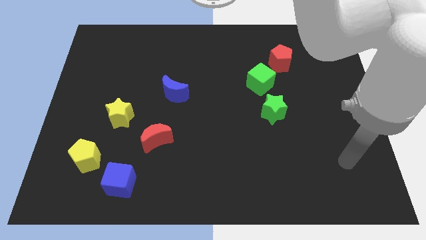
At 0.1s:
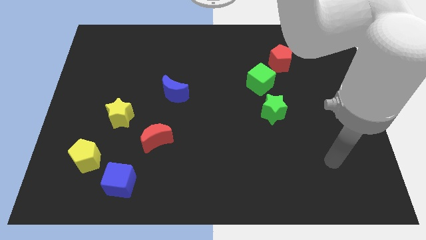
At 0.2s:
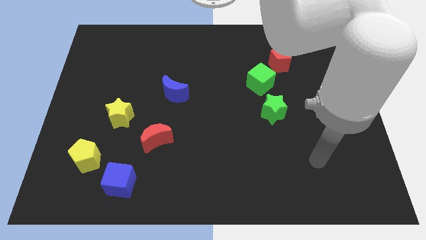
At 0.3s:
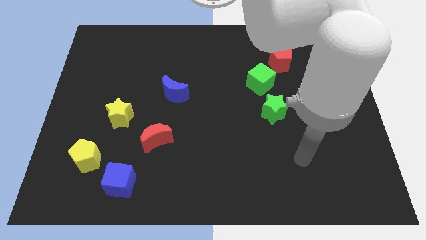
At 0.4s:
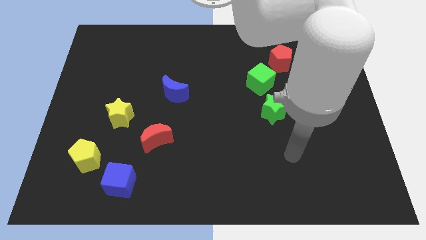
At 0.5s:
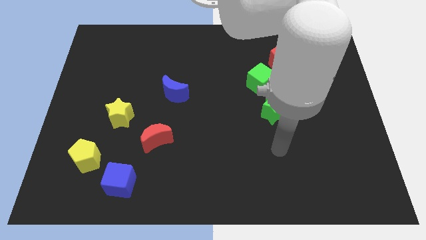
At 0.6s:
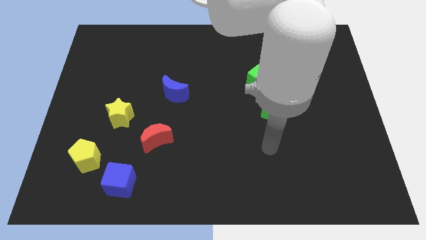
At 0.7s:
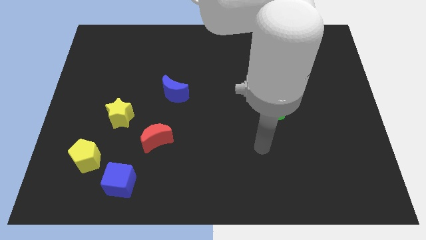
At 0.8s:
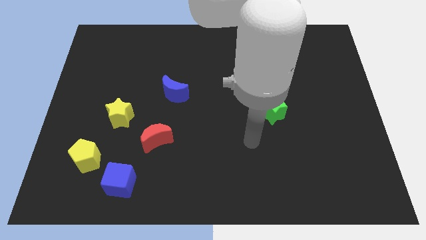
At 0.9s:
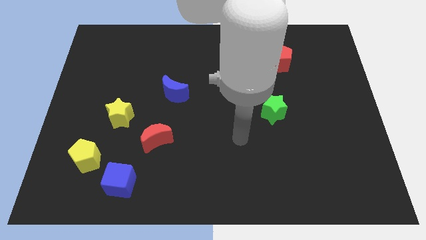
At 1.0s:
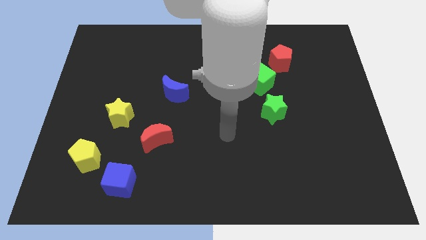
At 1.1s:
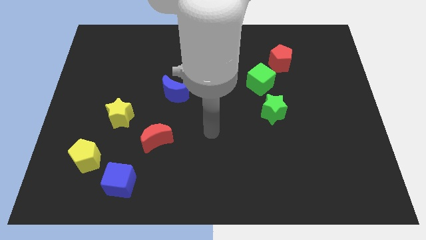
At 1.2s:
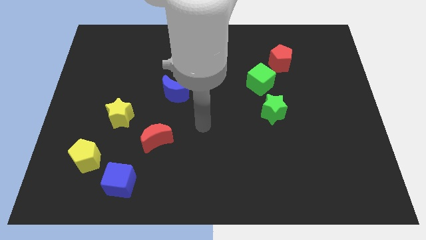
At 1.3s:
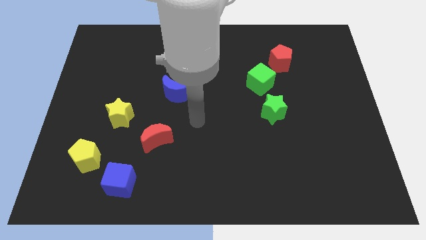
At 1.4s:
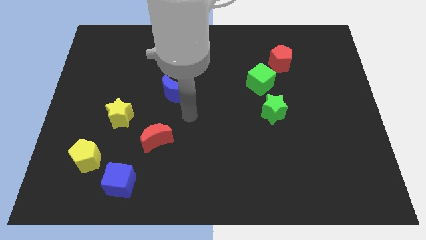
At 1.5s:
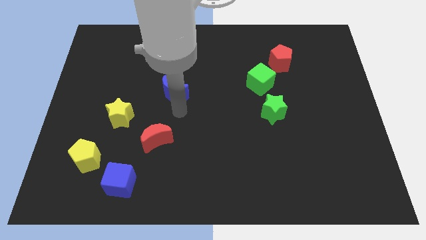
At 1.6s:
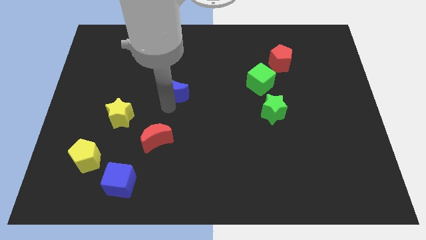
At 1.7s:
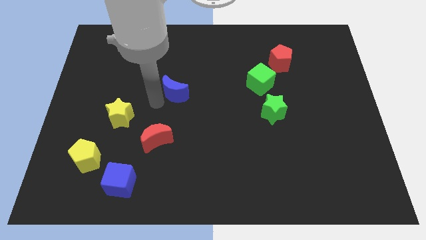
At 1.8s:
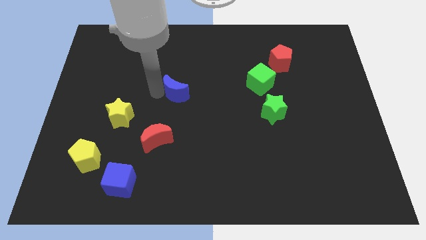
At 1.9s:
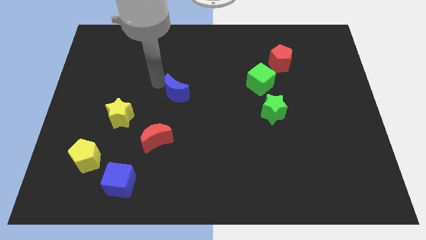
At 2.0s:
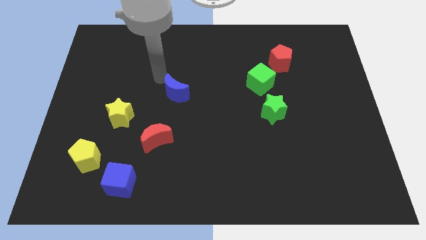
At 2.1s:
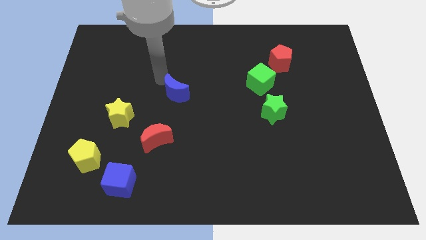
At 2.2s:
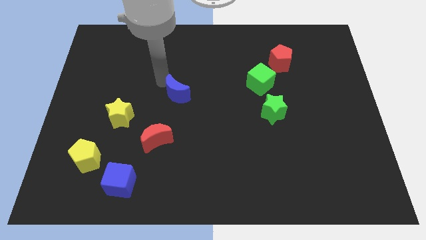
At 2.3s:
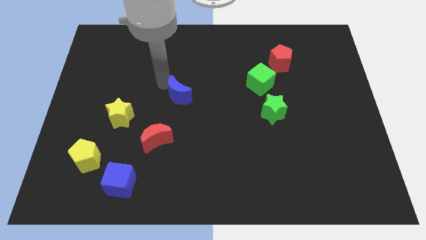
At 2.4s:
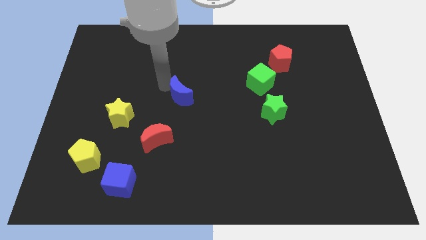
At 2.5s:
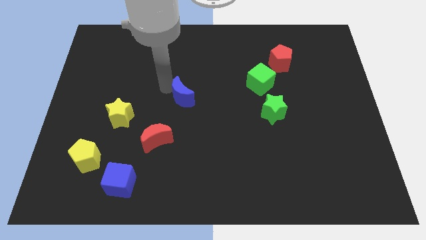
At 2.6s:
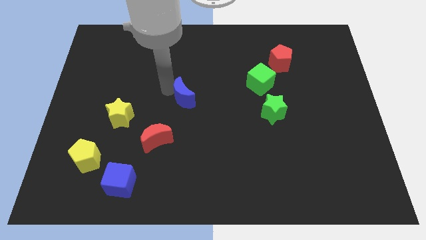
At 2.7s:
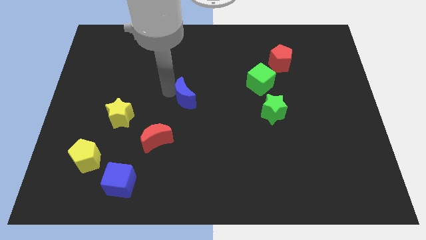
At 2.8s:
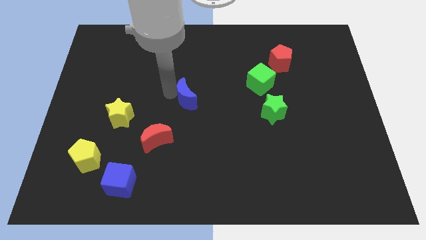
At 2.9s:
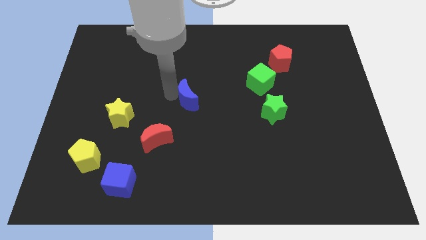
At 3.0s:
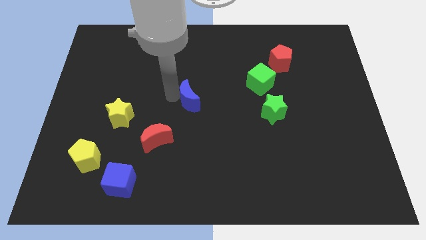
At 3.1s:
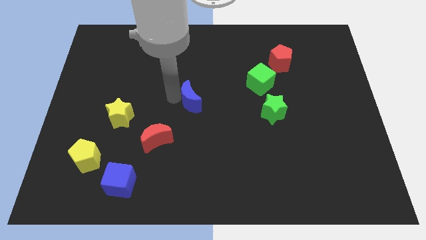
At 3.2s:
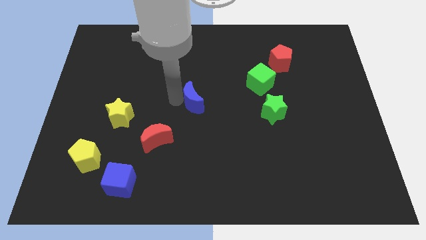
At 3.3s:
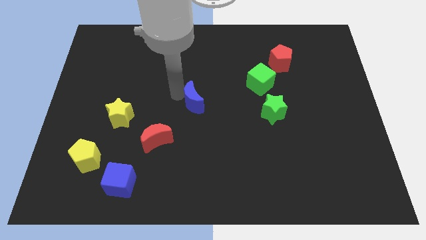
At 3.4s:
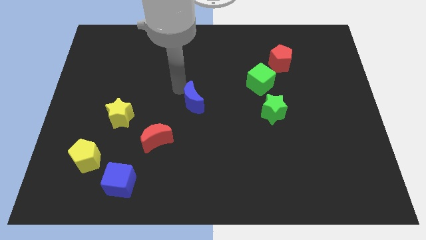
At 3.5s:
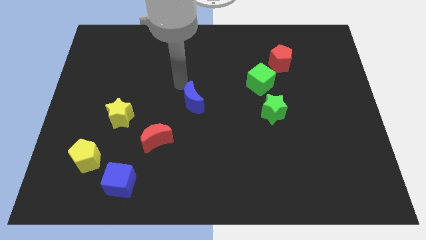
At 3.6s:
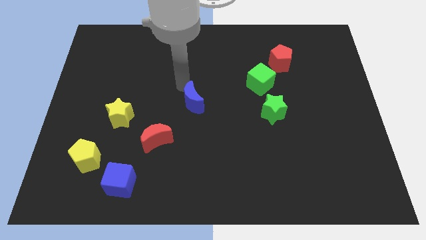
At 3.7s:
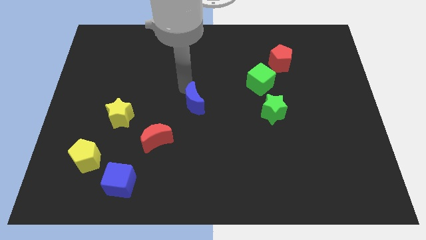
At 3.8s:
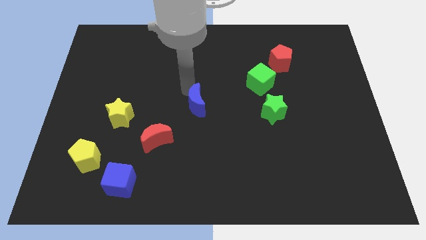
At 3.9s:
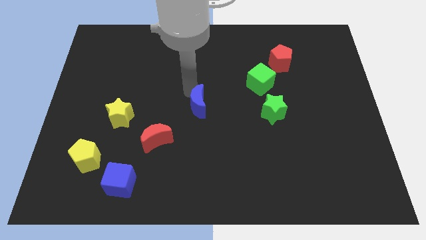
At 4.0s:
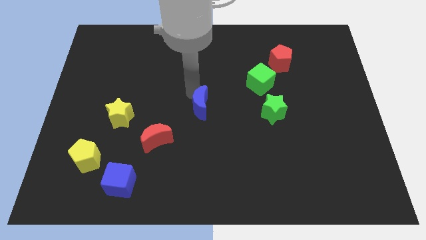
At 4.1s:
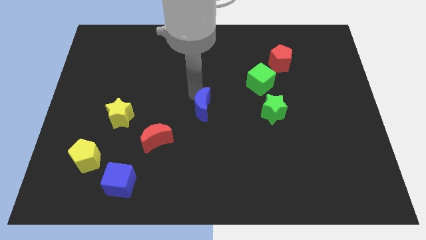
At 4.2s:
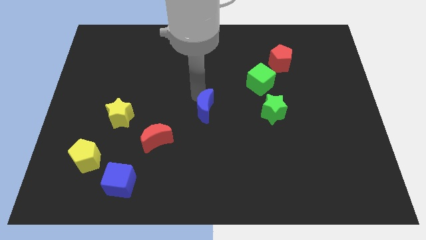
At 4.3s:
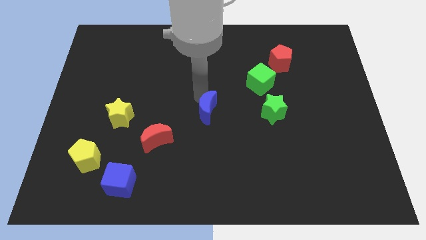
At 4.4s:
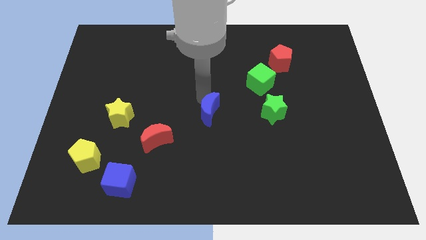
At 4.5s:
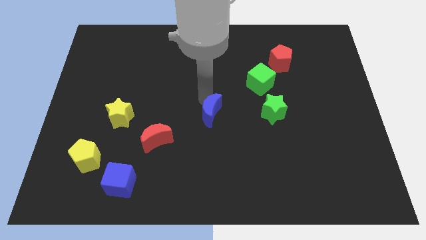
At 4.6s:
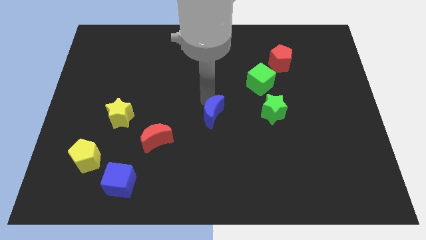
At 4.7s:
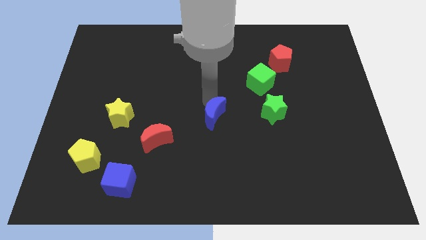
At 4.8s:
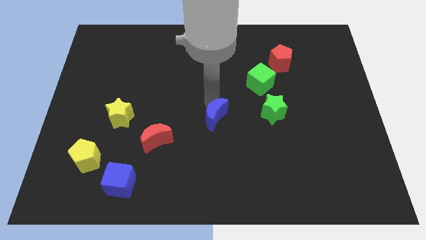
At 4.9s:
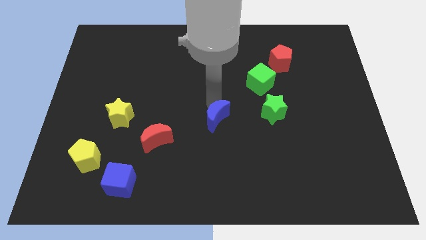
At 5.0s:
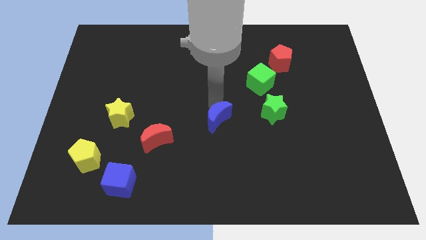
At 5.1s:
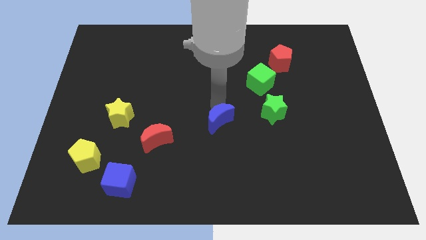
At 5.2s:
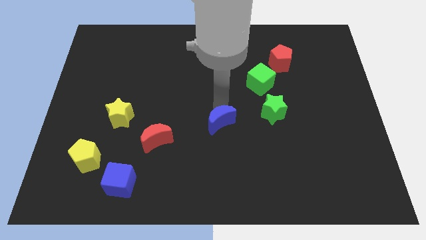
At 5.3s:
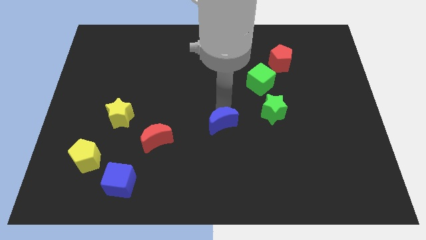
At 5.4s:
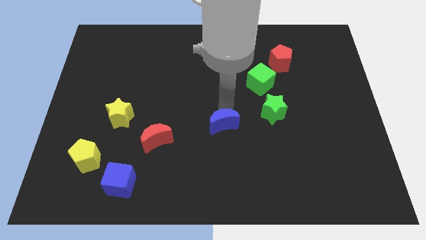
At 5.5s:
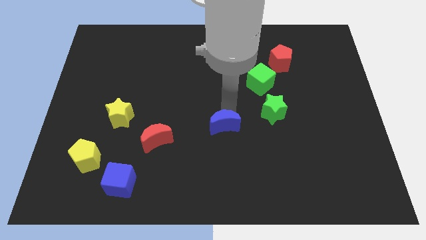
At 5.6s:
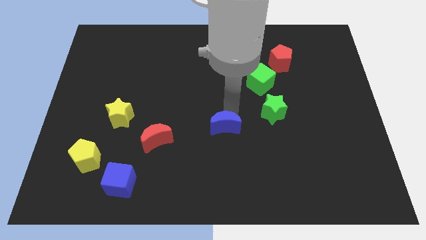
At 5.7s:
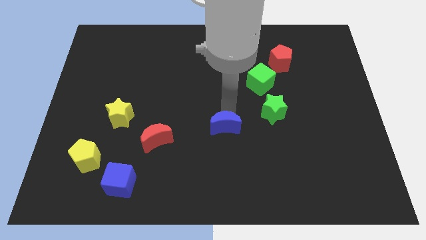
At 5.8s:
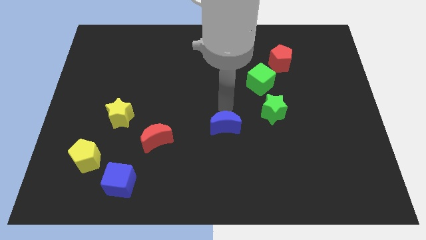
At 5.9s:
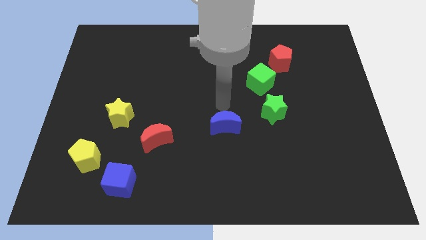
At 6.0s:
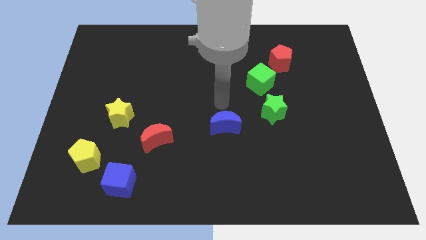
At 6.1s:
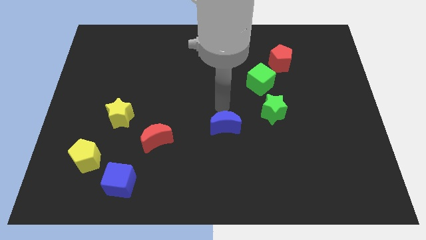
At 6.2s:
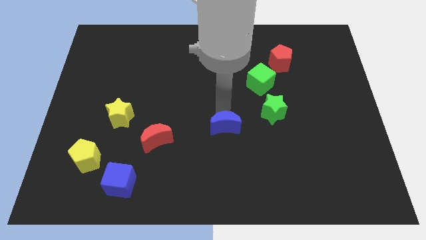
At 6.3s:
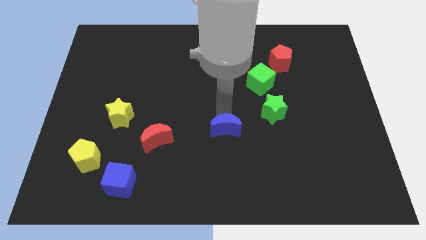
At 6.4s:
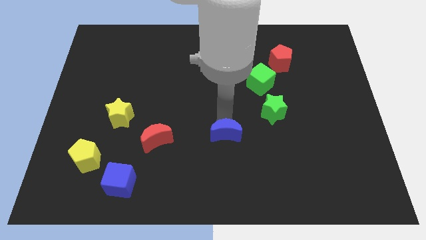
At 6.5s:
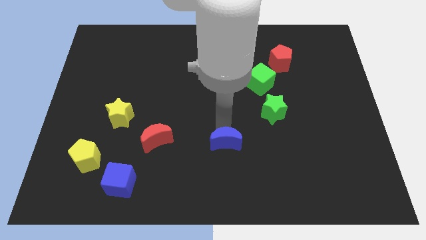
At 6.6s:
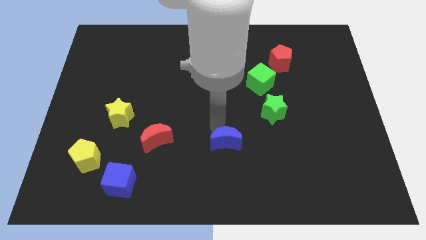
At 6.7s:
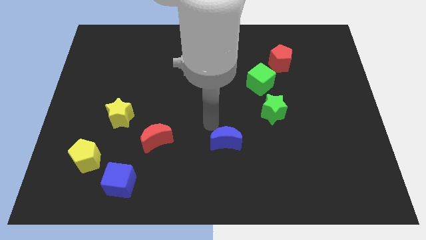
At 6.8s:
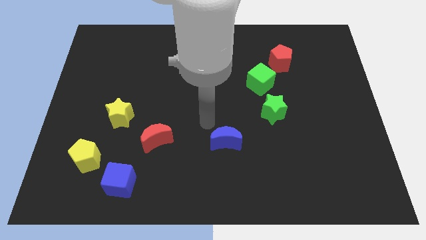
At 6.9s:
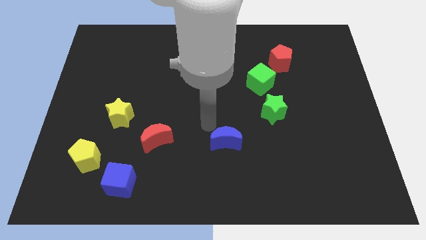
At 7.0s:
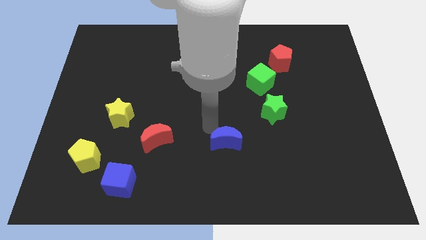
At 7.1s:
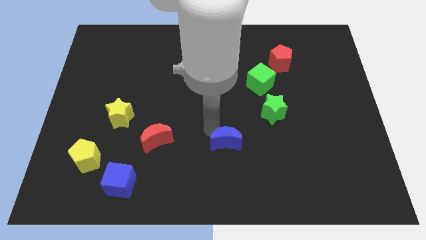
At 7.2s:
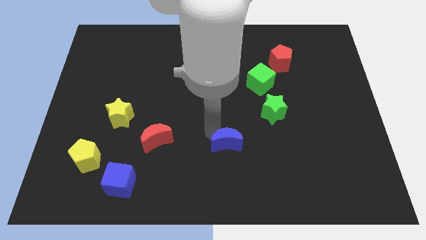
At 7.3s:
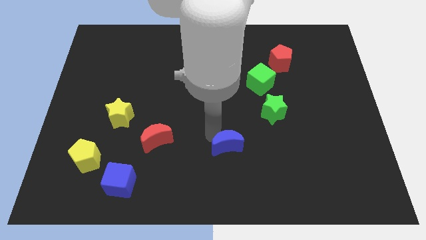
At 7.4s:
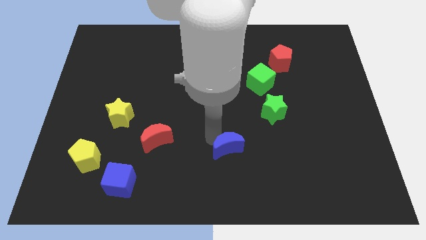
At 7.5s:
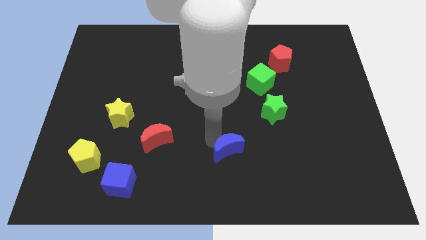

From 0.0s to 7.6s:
push the blue moon down and then to the right

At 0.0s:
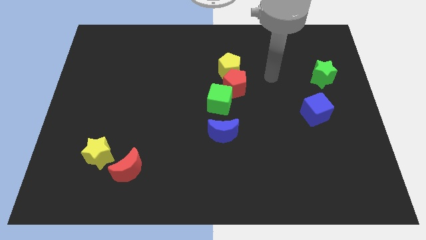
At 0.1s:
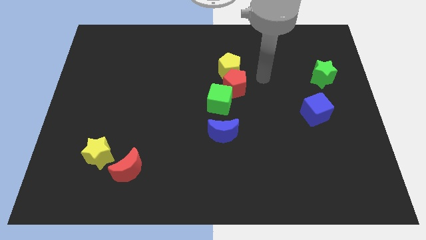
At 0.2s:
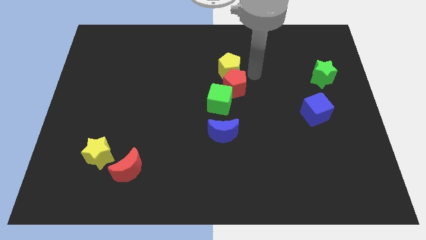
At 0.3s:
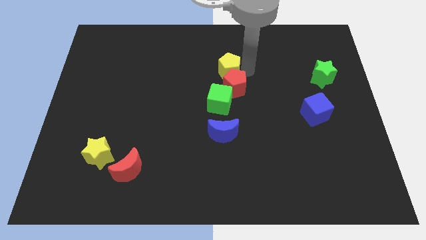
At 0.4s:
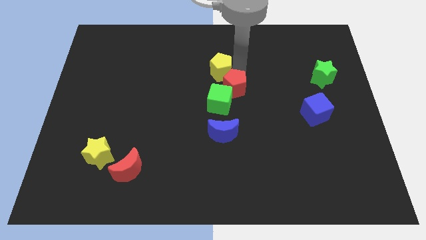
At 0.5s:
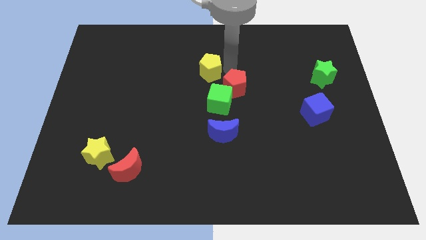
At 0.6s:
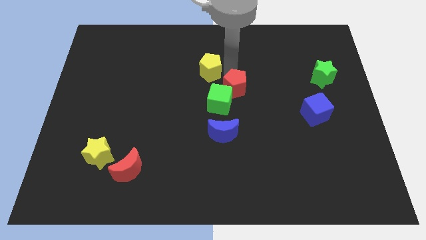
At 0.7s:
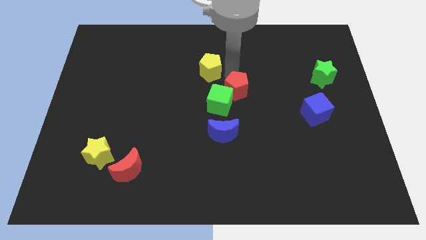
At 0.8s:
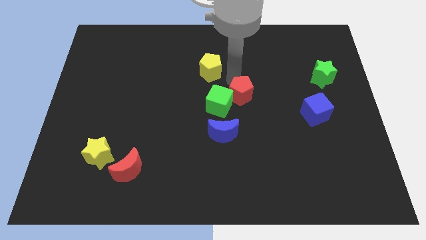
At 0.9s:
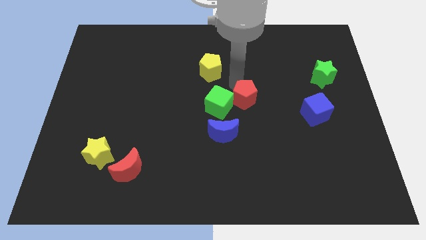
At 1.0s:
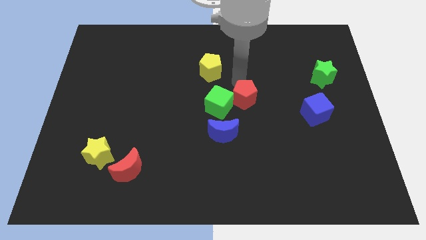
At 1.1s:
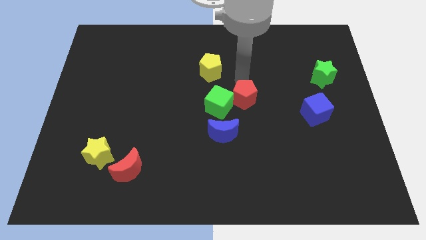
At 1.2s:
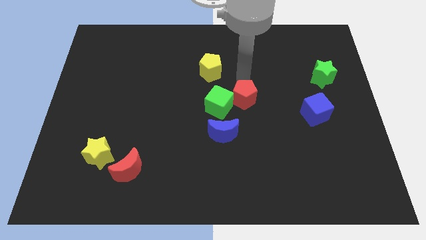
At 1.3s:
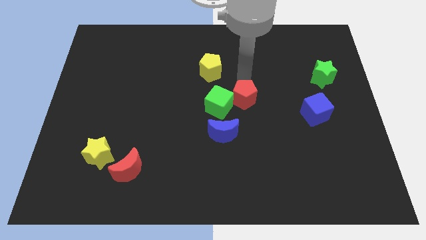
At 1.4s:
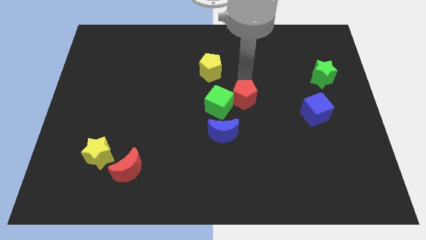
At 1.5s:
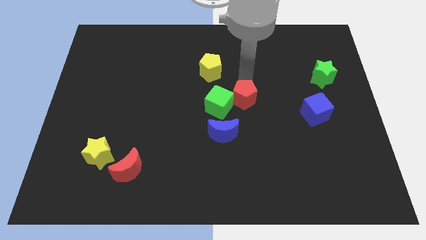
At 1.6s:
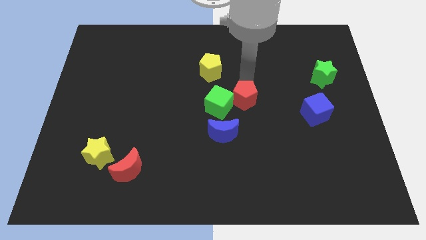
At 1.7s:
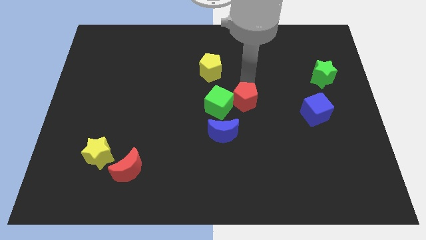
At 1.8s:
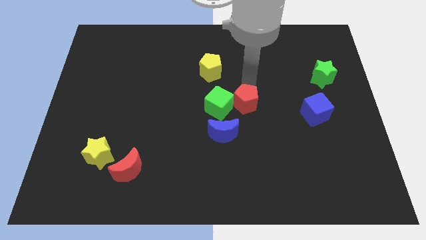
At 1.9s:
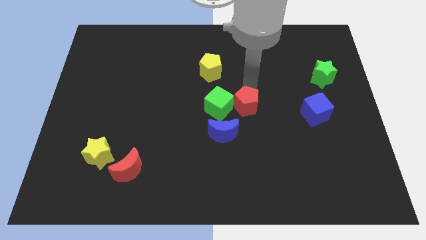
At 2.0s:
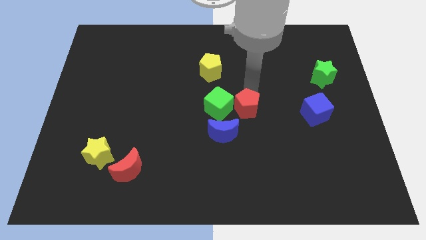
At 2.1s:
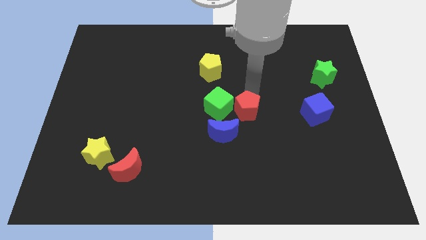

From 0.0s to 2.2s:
slide the red pentagon a bit downwards
